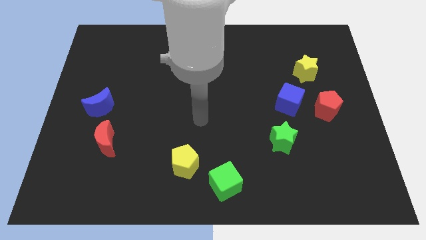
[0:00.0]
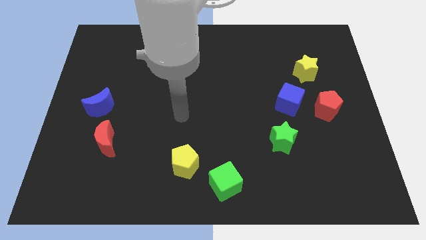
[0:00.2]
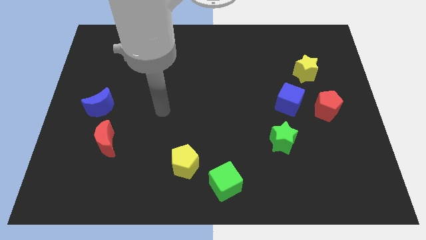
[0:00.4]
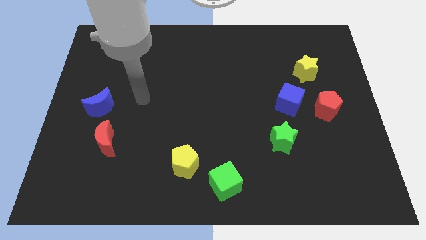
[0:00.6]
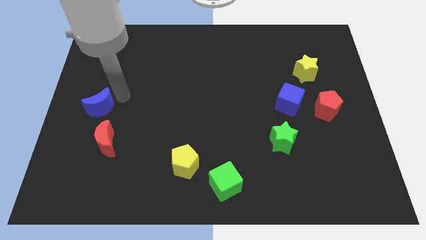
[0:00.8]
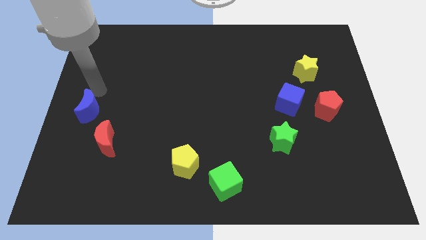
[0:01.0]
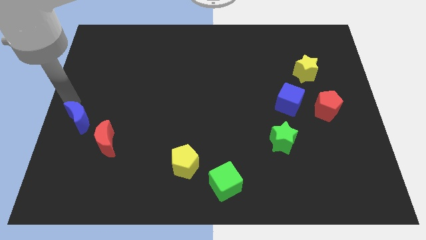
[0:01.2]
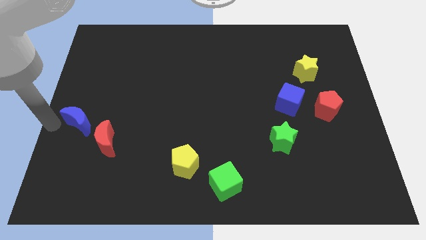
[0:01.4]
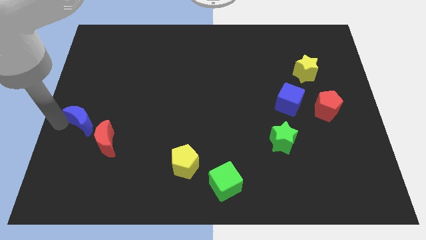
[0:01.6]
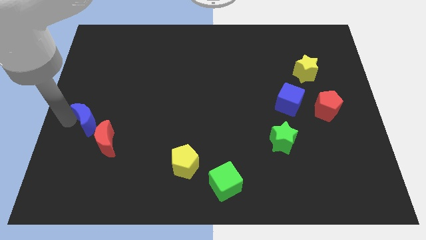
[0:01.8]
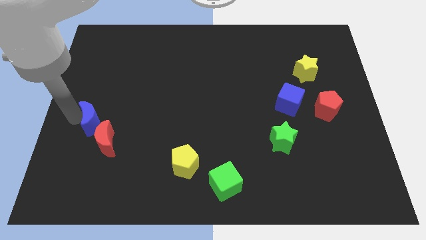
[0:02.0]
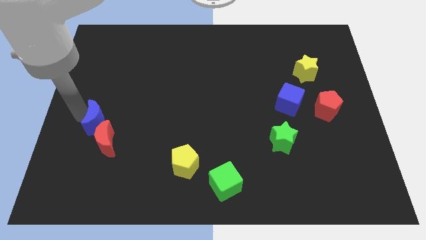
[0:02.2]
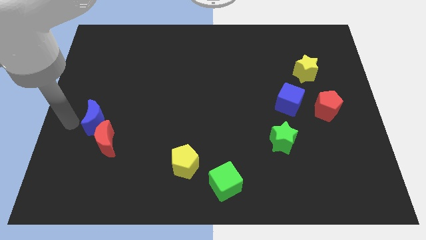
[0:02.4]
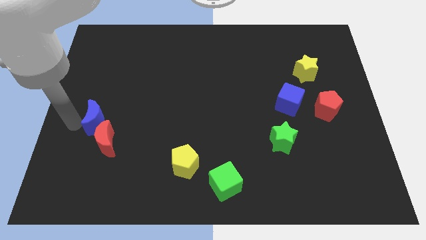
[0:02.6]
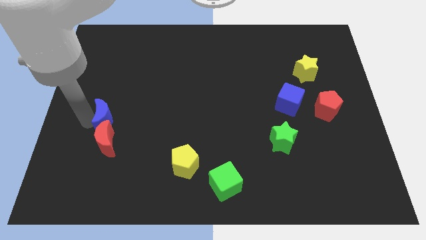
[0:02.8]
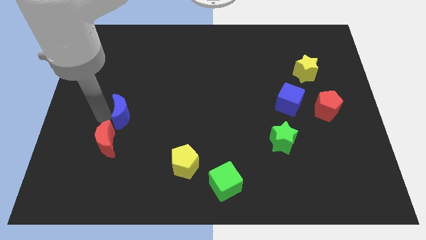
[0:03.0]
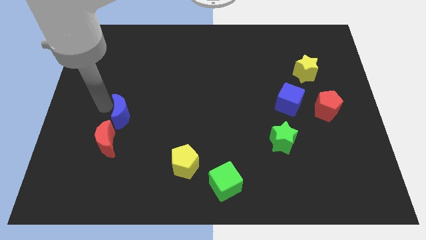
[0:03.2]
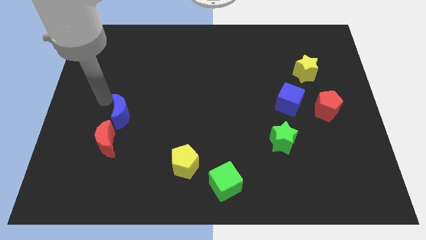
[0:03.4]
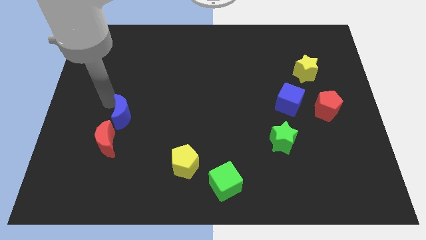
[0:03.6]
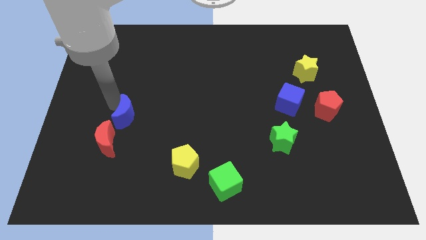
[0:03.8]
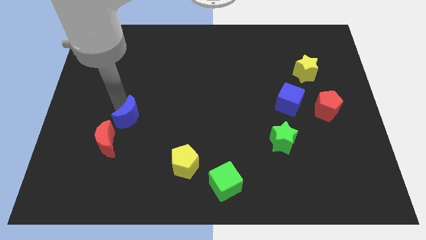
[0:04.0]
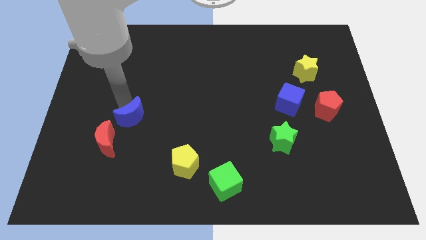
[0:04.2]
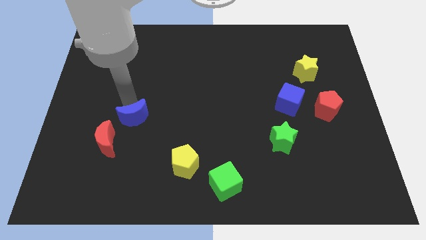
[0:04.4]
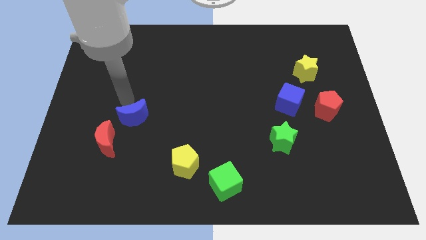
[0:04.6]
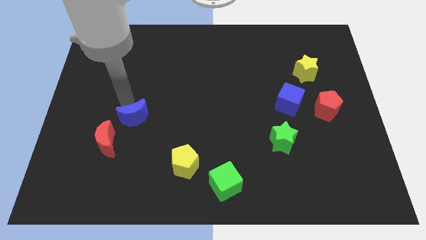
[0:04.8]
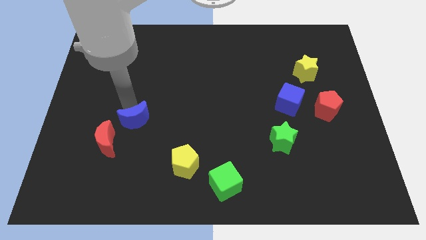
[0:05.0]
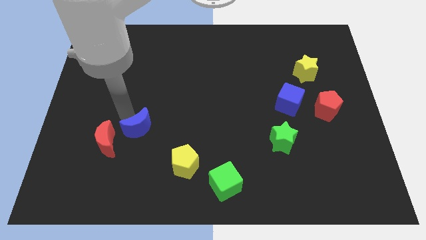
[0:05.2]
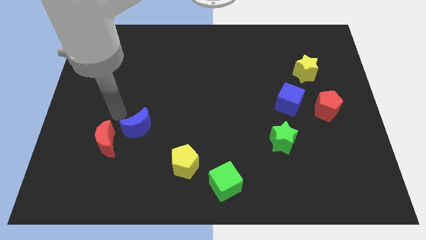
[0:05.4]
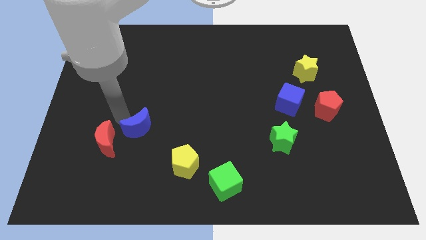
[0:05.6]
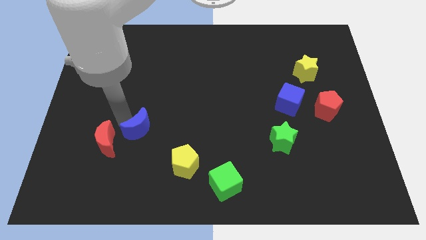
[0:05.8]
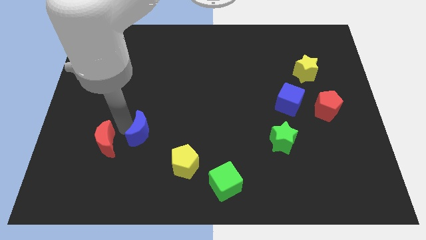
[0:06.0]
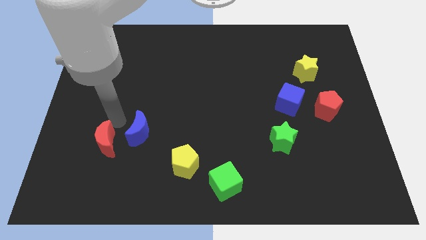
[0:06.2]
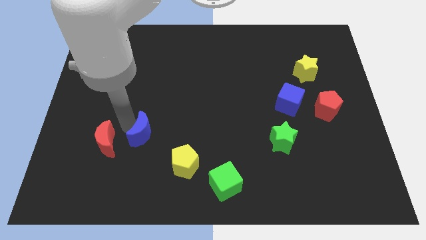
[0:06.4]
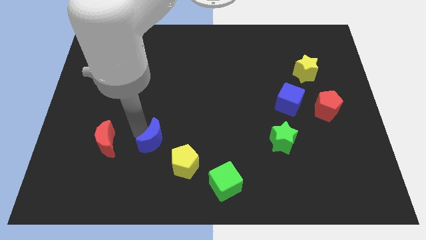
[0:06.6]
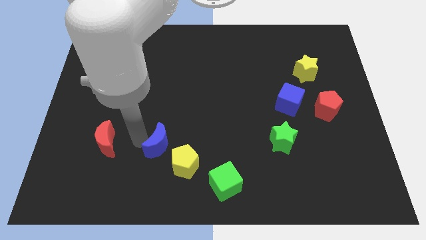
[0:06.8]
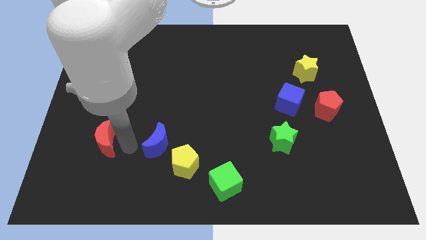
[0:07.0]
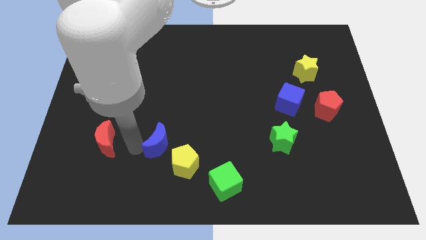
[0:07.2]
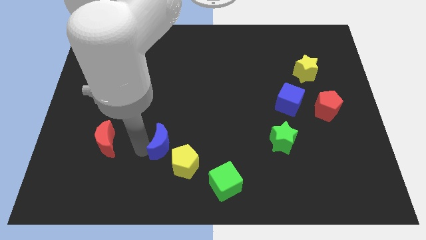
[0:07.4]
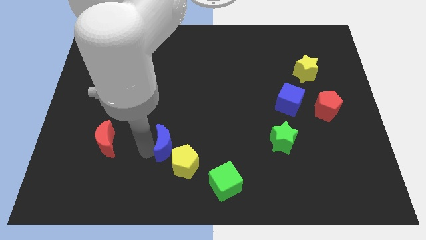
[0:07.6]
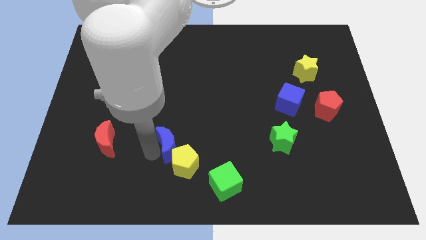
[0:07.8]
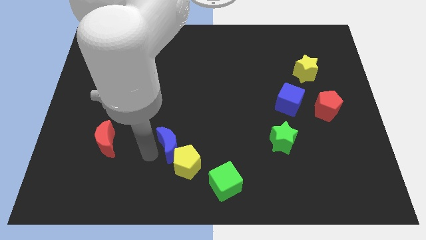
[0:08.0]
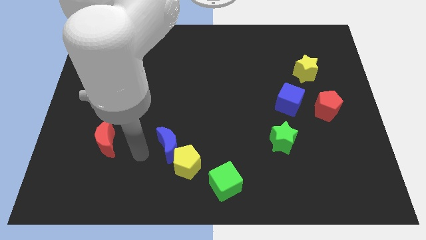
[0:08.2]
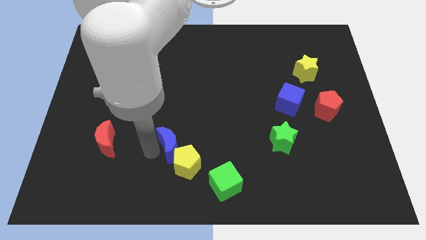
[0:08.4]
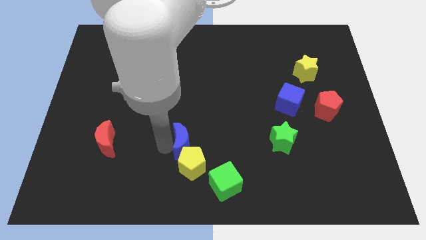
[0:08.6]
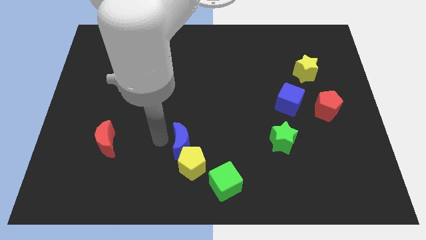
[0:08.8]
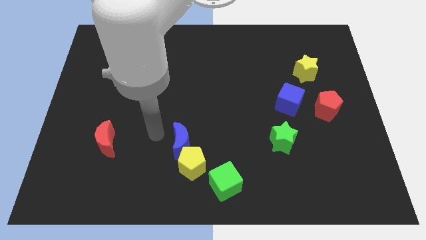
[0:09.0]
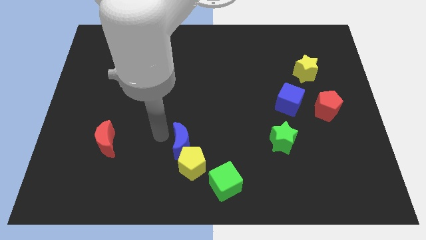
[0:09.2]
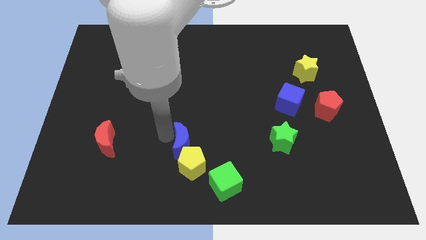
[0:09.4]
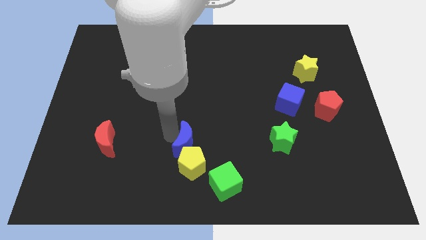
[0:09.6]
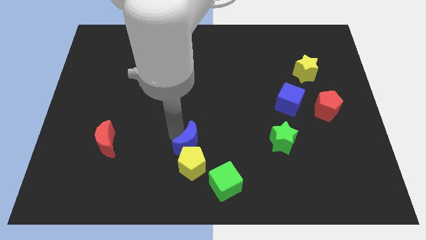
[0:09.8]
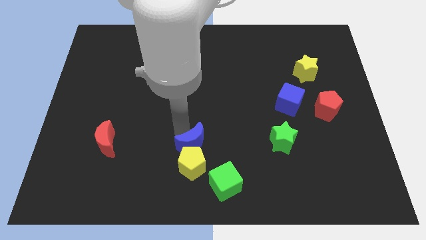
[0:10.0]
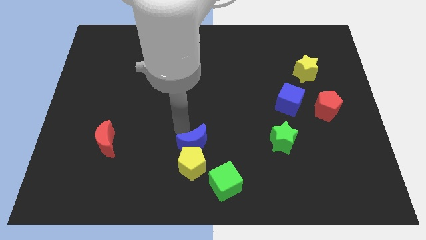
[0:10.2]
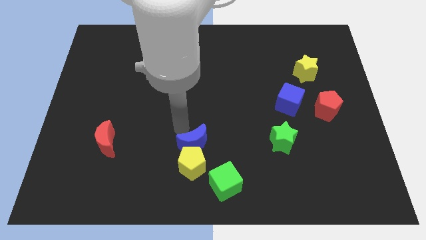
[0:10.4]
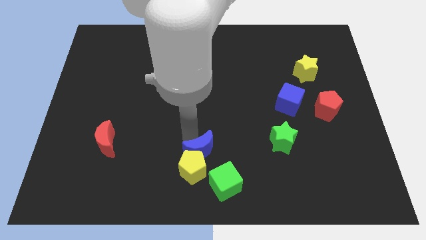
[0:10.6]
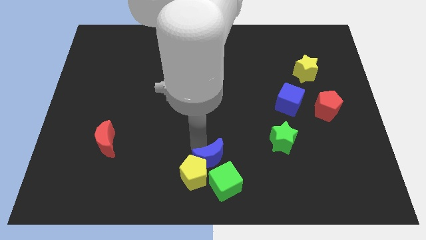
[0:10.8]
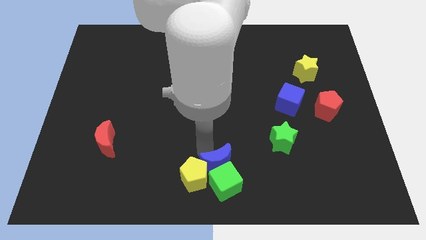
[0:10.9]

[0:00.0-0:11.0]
push the blue moon close to the green cube

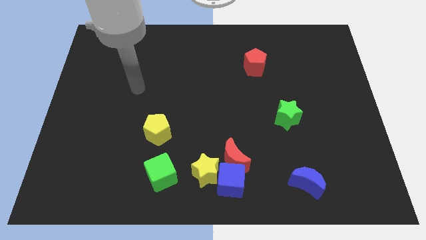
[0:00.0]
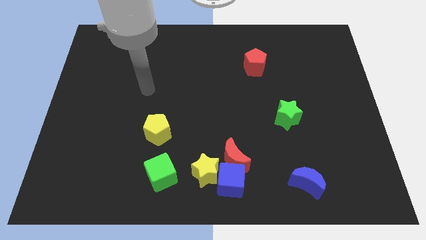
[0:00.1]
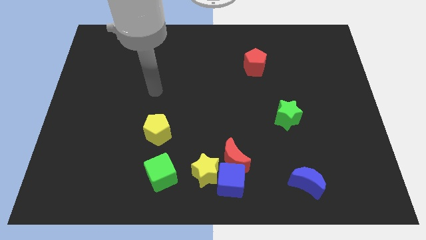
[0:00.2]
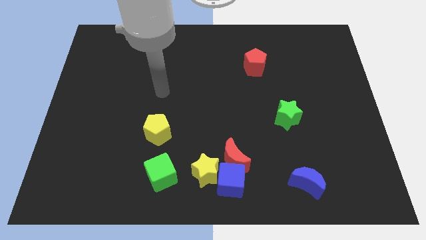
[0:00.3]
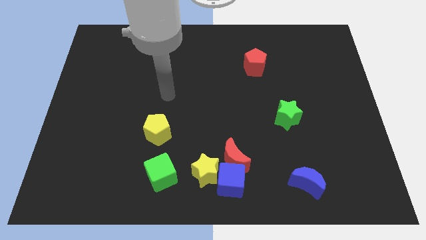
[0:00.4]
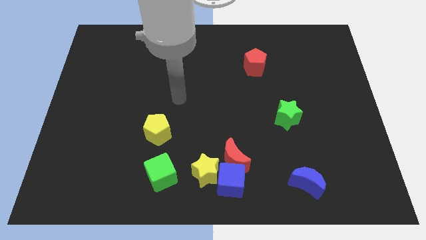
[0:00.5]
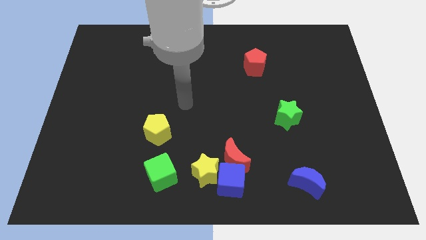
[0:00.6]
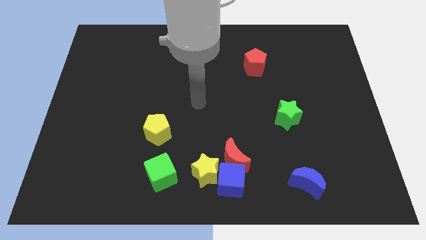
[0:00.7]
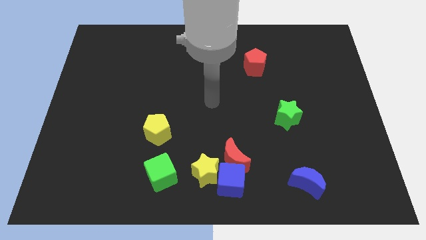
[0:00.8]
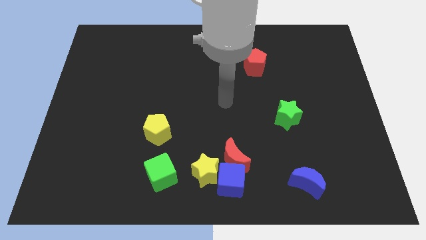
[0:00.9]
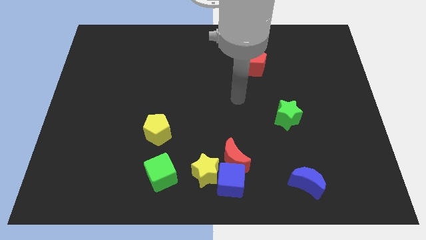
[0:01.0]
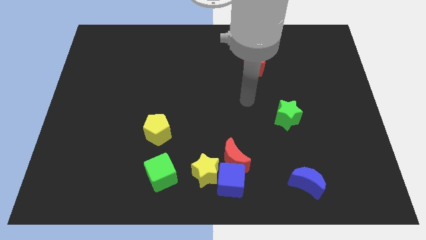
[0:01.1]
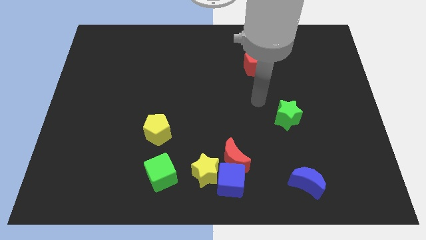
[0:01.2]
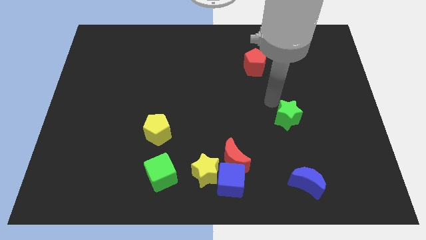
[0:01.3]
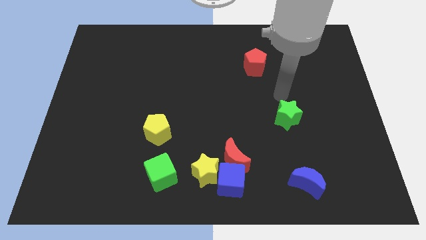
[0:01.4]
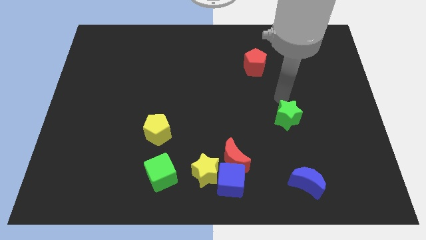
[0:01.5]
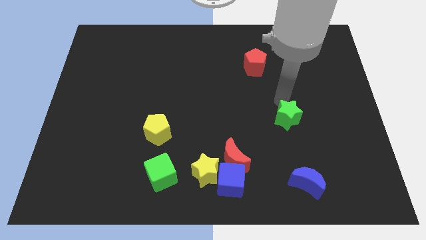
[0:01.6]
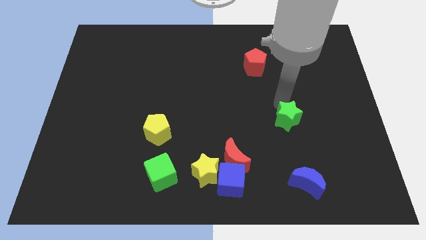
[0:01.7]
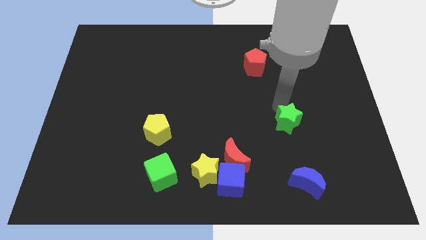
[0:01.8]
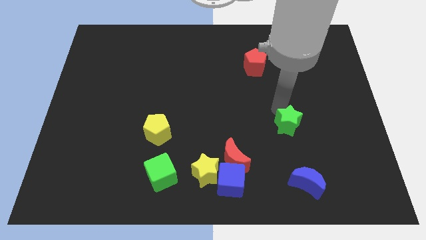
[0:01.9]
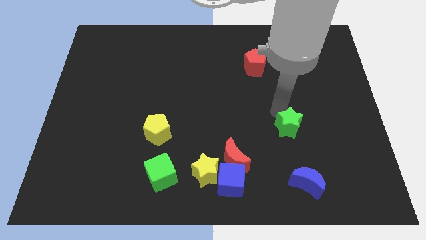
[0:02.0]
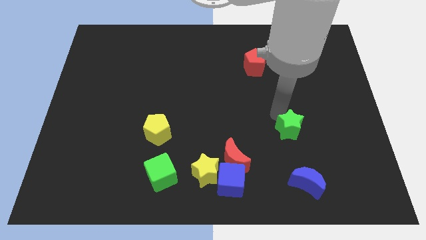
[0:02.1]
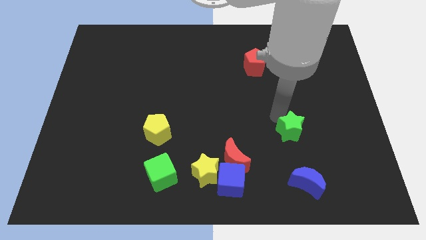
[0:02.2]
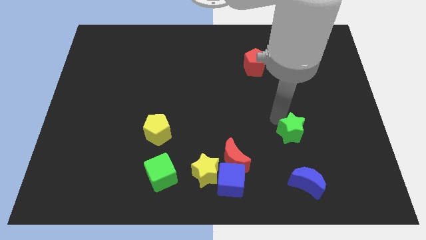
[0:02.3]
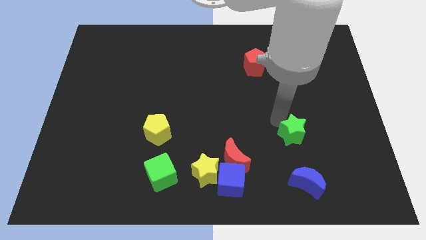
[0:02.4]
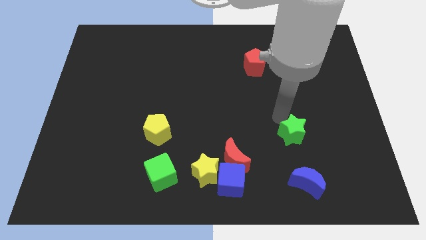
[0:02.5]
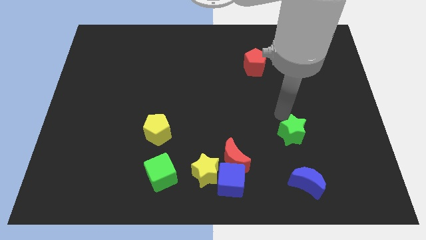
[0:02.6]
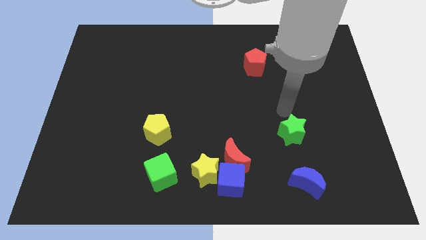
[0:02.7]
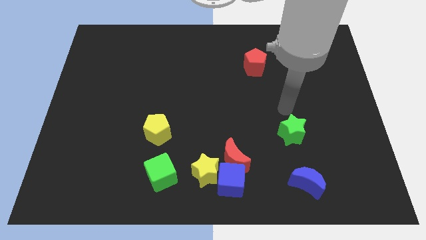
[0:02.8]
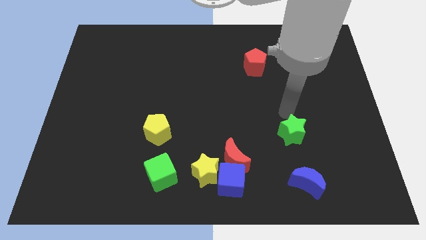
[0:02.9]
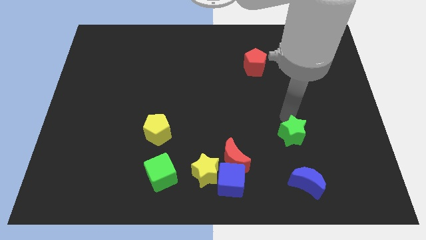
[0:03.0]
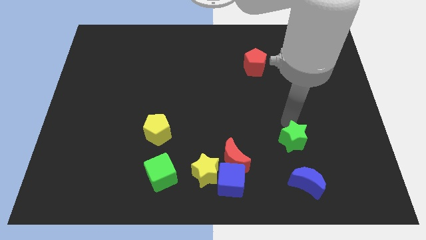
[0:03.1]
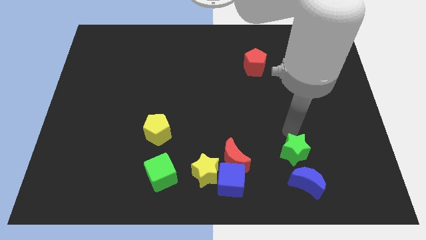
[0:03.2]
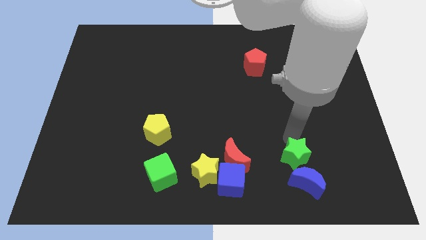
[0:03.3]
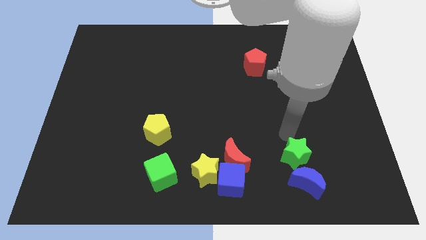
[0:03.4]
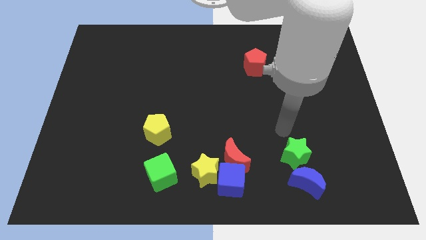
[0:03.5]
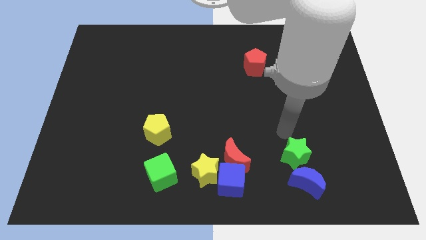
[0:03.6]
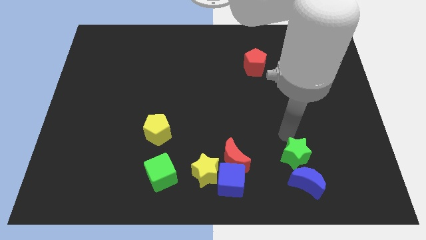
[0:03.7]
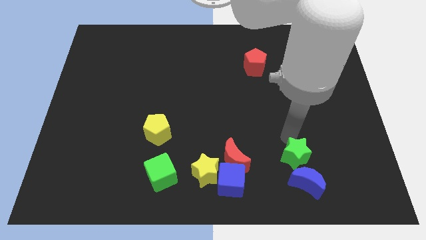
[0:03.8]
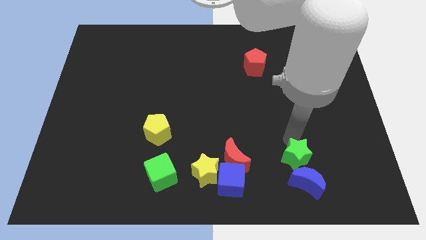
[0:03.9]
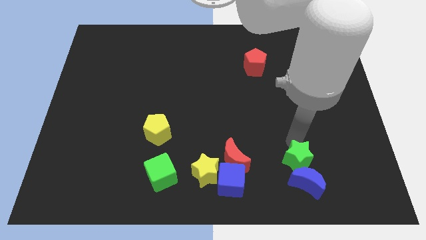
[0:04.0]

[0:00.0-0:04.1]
move the green star next to the blue moon
